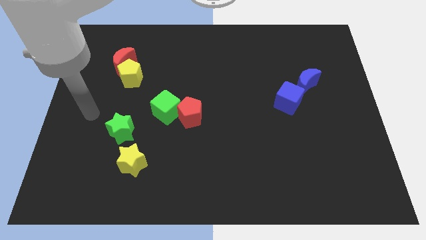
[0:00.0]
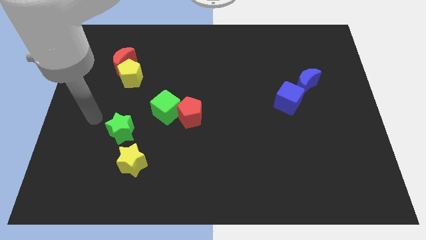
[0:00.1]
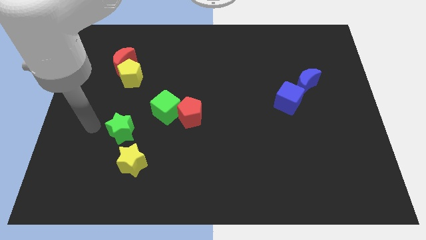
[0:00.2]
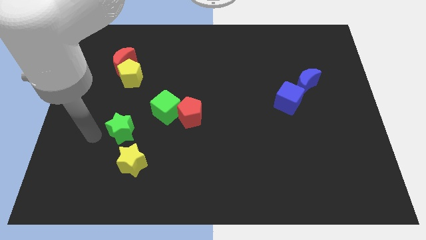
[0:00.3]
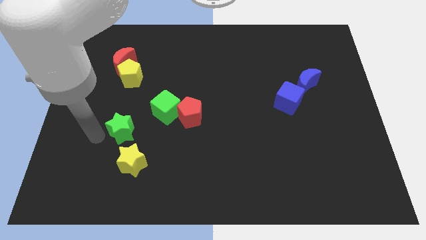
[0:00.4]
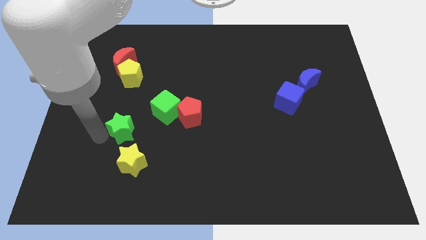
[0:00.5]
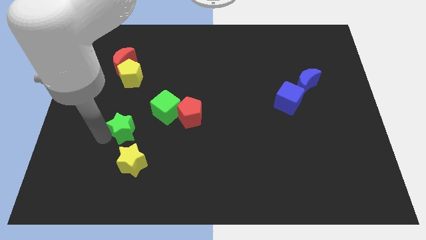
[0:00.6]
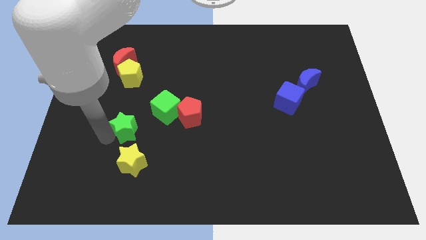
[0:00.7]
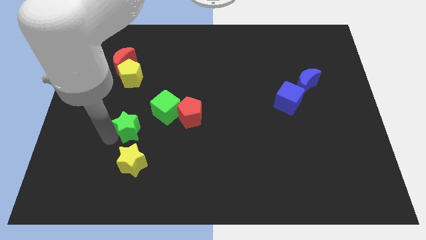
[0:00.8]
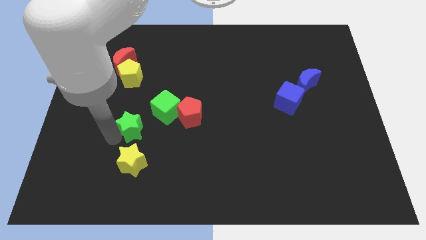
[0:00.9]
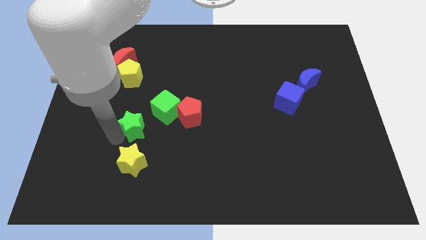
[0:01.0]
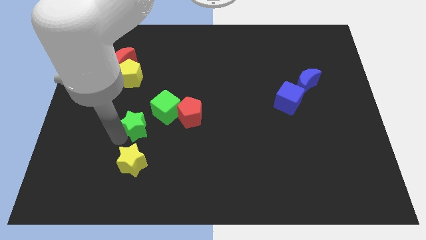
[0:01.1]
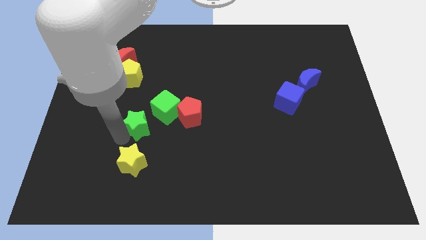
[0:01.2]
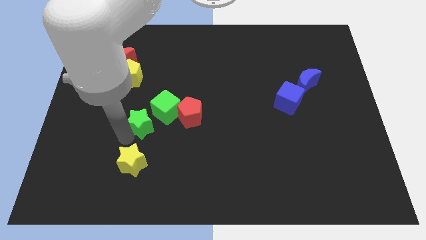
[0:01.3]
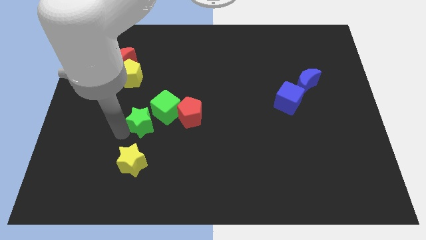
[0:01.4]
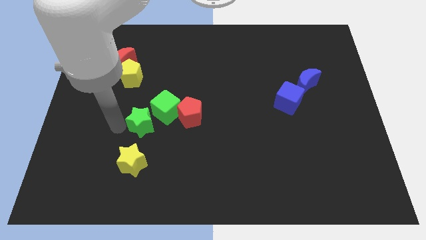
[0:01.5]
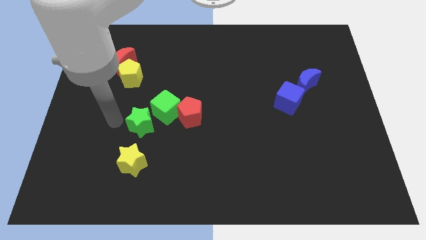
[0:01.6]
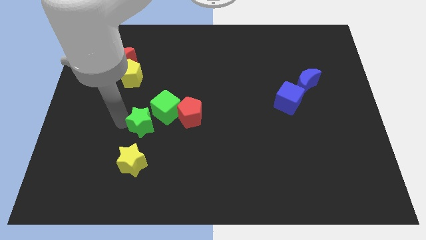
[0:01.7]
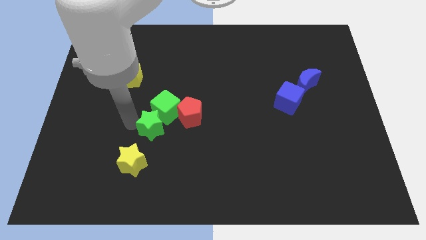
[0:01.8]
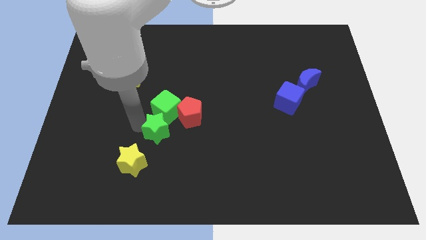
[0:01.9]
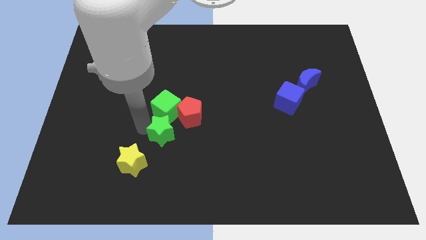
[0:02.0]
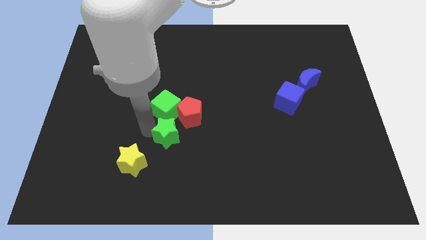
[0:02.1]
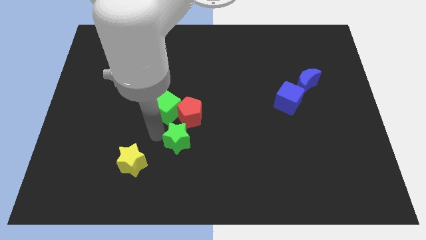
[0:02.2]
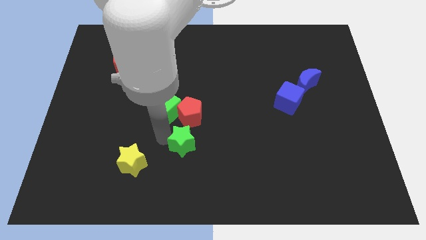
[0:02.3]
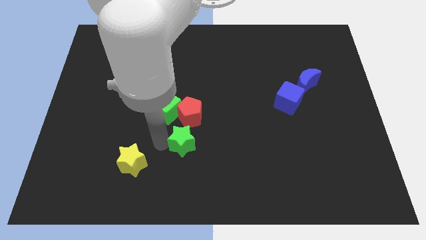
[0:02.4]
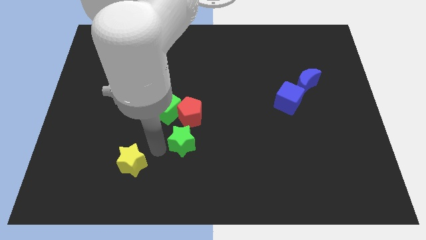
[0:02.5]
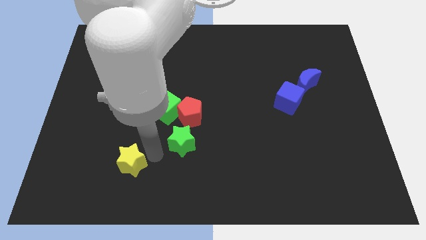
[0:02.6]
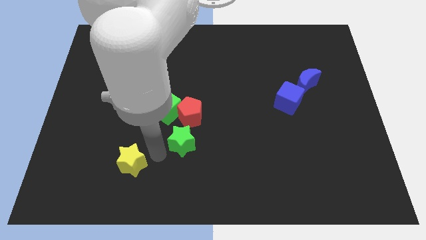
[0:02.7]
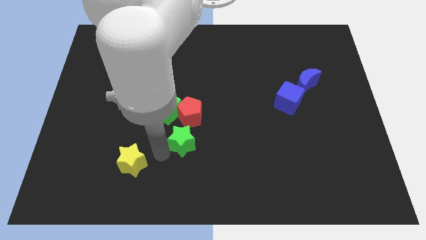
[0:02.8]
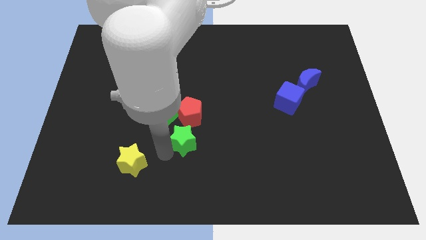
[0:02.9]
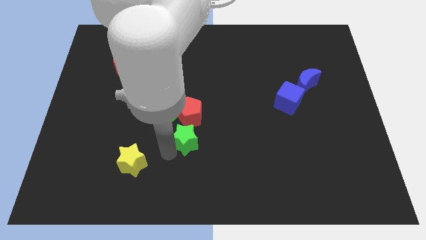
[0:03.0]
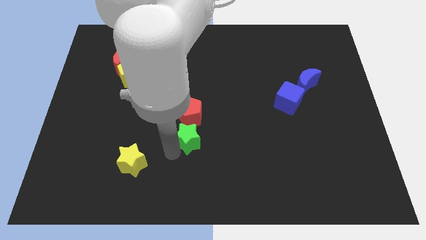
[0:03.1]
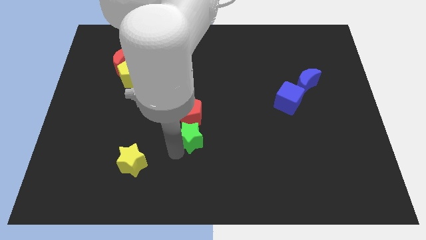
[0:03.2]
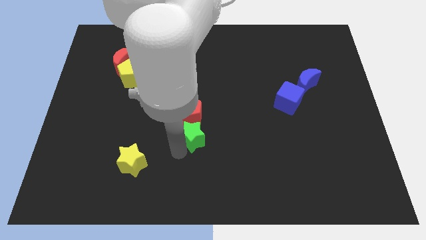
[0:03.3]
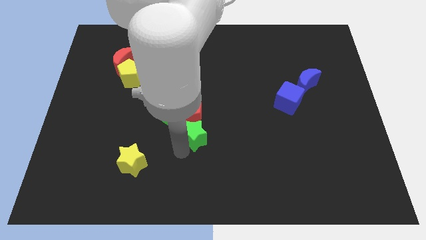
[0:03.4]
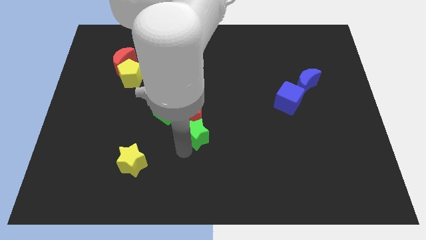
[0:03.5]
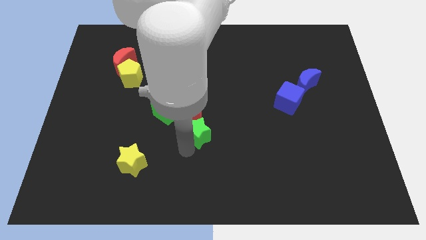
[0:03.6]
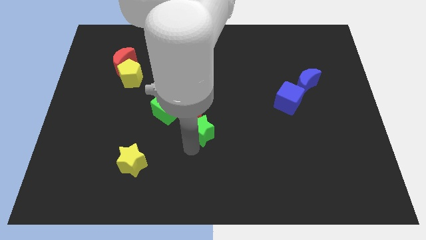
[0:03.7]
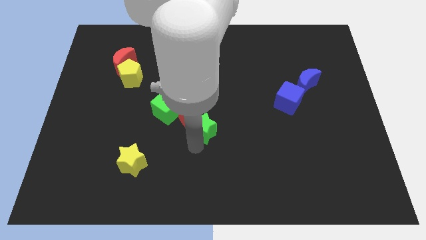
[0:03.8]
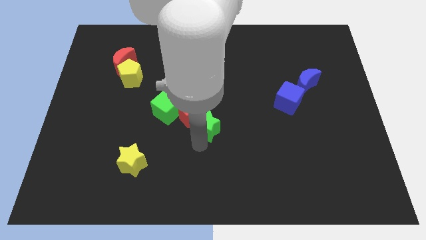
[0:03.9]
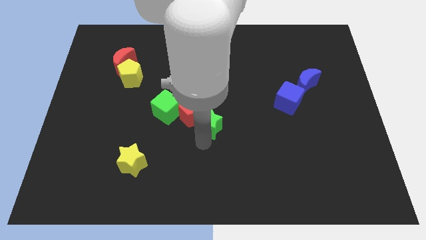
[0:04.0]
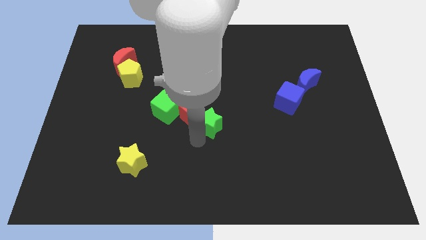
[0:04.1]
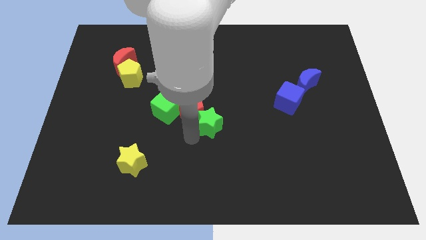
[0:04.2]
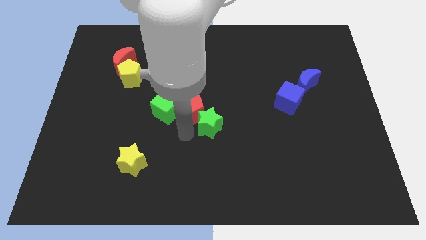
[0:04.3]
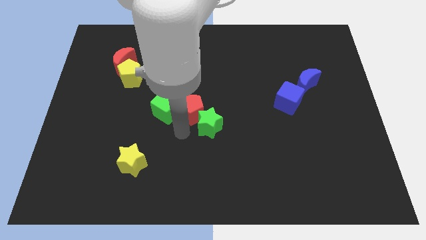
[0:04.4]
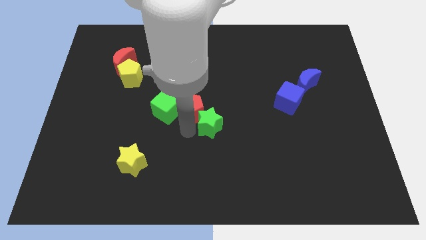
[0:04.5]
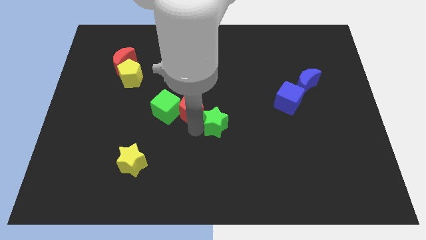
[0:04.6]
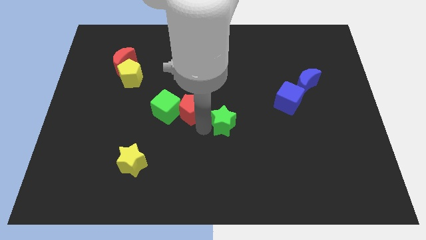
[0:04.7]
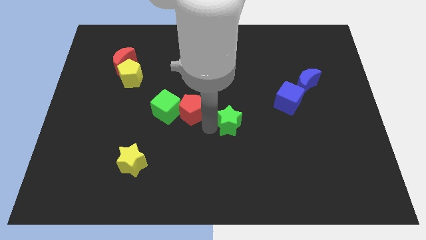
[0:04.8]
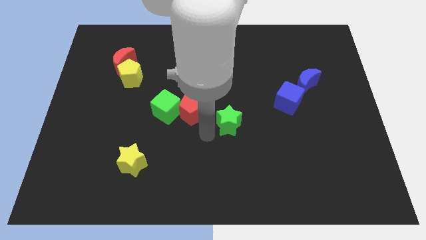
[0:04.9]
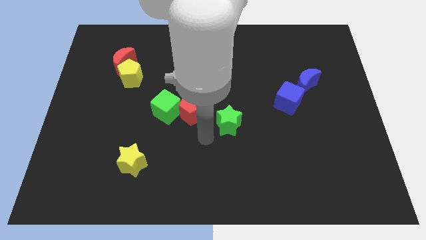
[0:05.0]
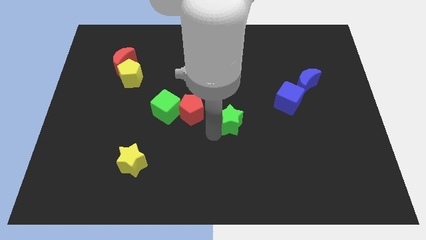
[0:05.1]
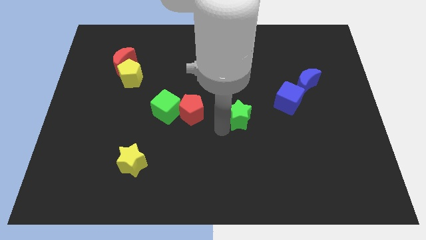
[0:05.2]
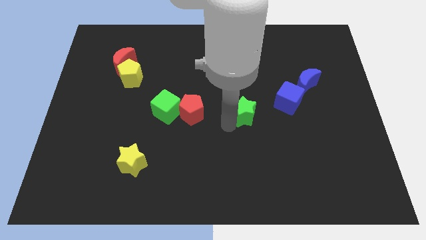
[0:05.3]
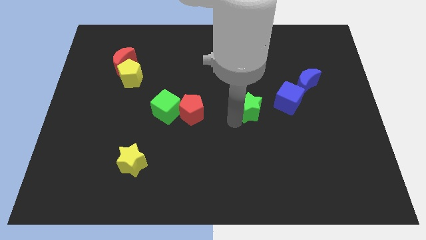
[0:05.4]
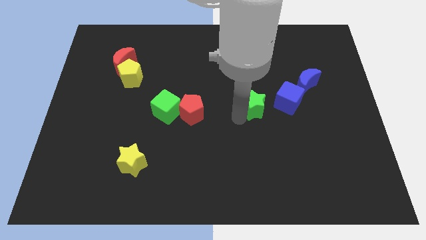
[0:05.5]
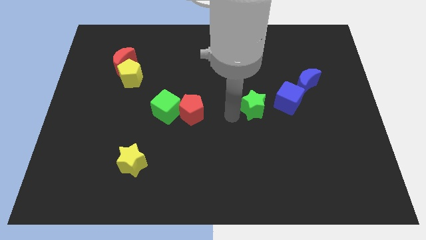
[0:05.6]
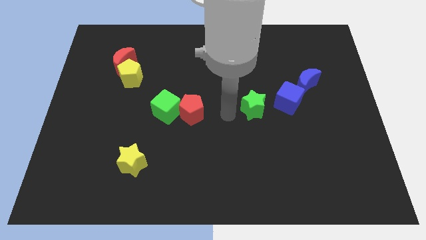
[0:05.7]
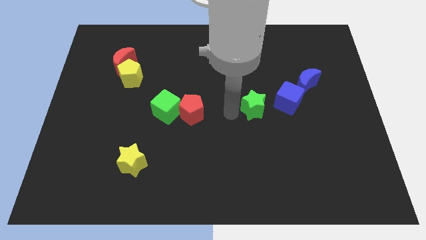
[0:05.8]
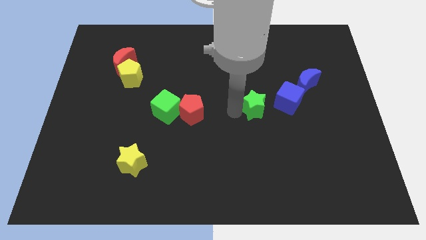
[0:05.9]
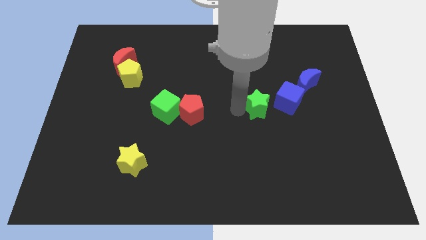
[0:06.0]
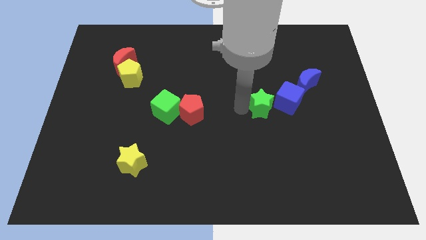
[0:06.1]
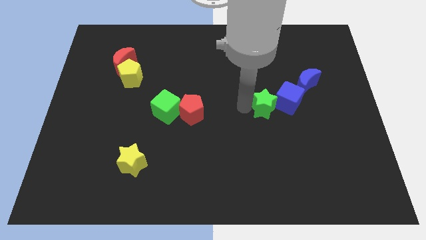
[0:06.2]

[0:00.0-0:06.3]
push the green star to the blue cube

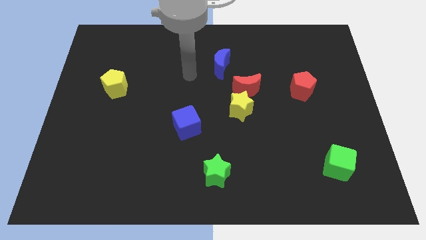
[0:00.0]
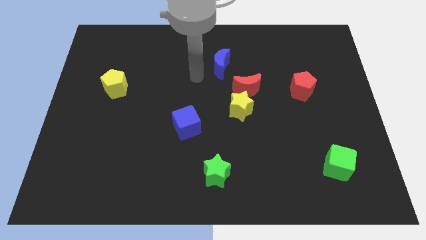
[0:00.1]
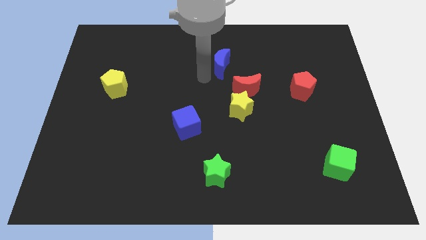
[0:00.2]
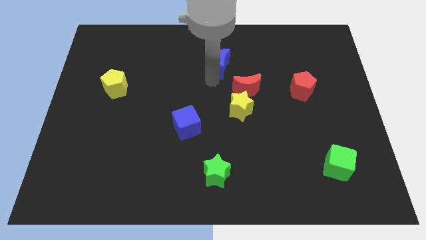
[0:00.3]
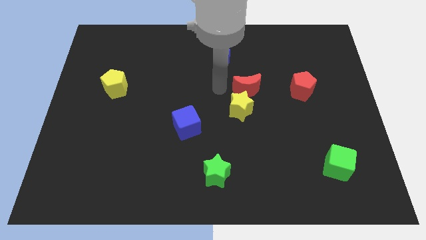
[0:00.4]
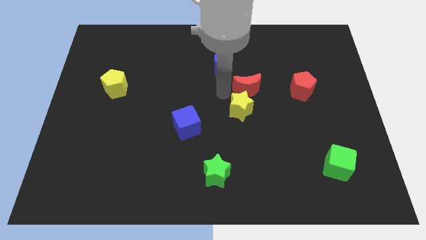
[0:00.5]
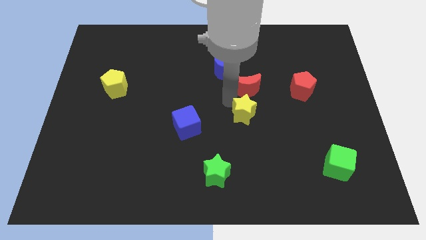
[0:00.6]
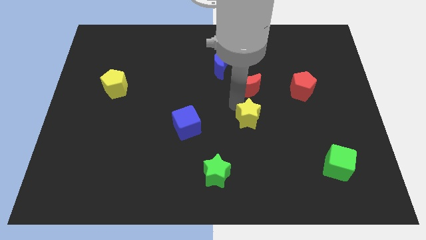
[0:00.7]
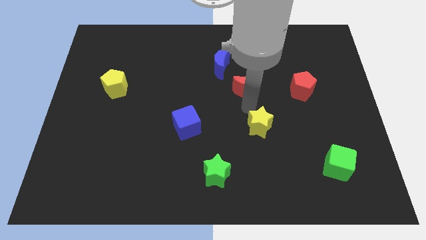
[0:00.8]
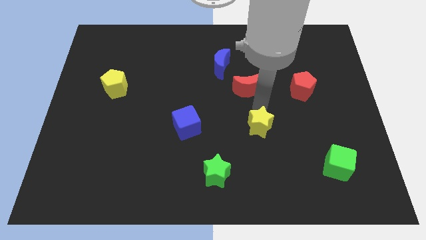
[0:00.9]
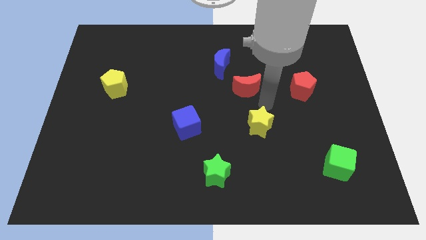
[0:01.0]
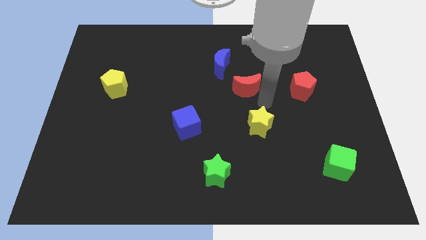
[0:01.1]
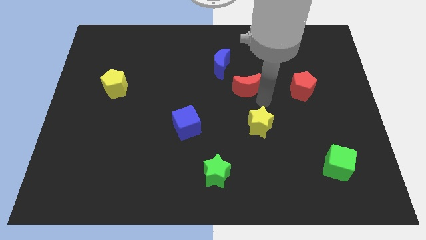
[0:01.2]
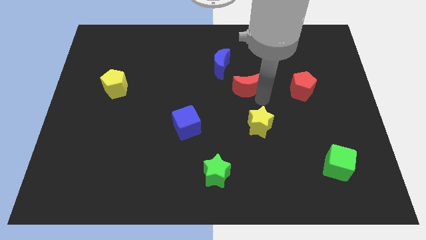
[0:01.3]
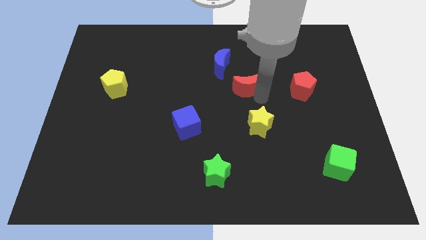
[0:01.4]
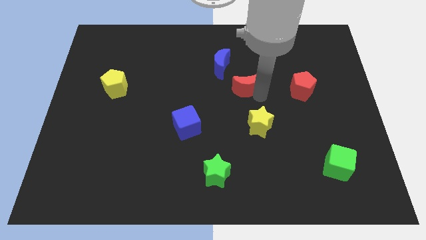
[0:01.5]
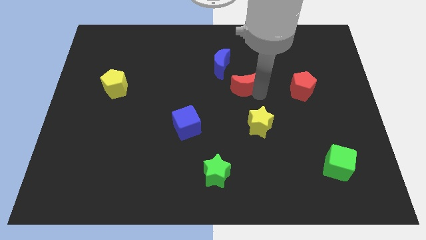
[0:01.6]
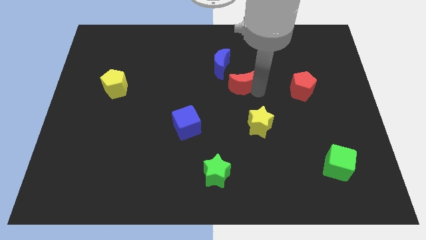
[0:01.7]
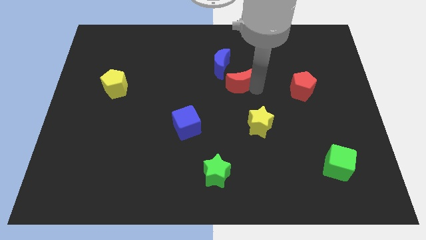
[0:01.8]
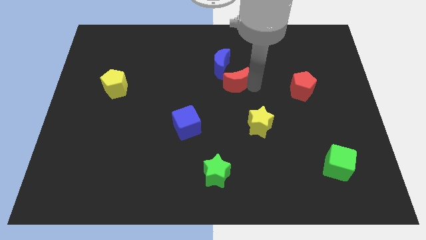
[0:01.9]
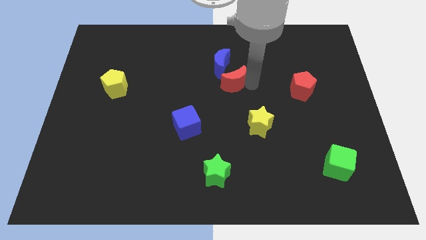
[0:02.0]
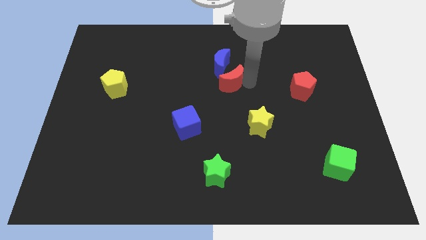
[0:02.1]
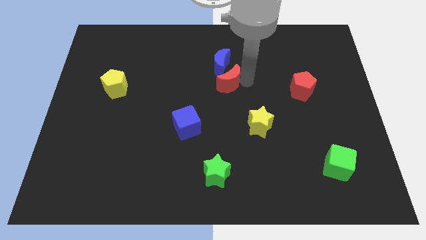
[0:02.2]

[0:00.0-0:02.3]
put the red moon close to the blue moon
